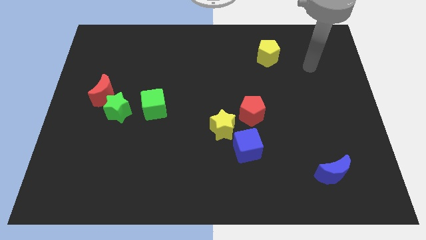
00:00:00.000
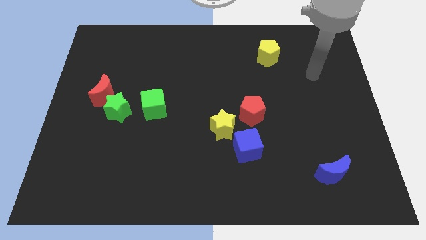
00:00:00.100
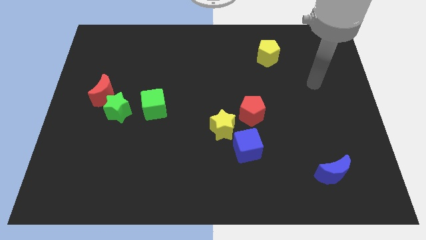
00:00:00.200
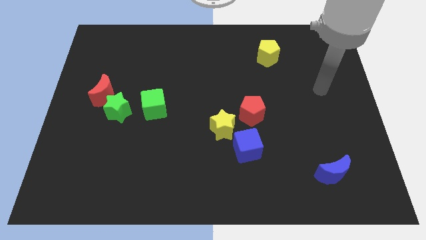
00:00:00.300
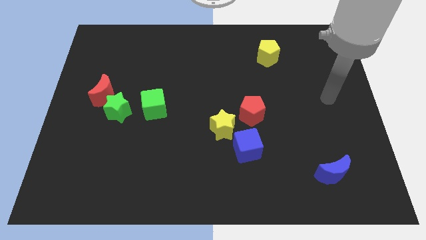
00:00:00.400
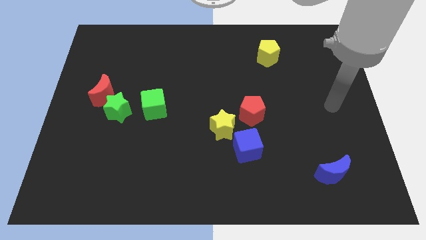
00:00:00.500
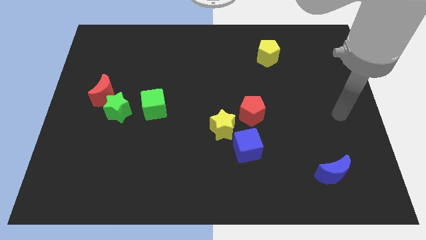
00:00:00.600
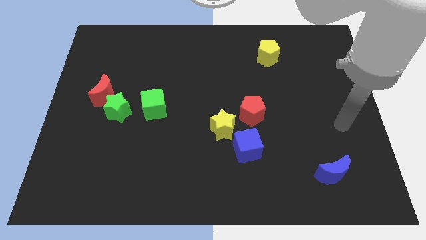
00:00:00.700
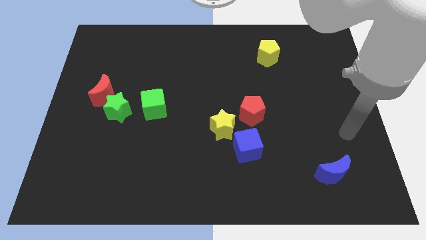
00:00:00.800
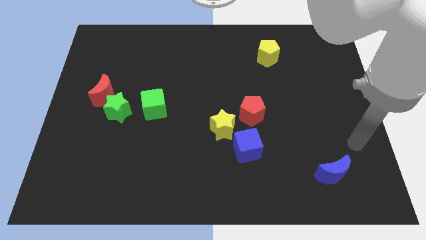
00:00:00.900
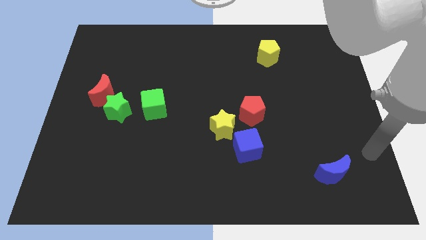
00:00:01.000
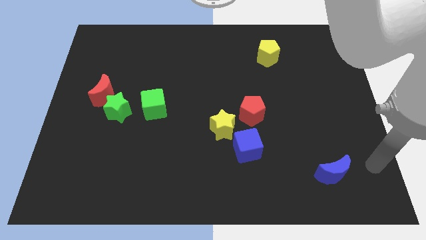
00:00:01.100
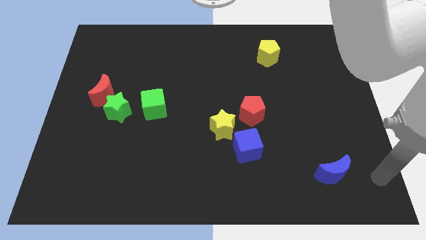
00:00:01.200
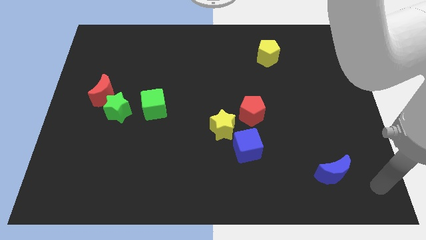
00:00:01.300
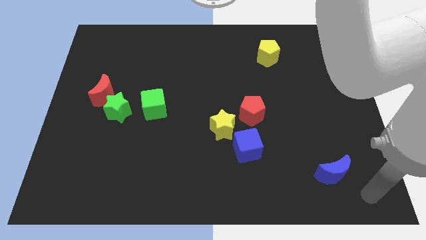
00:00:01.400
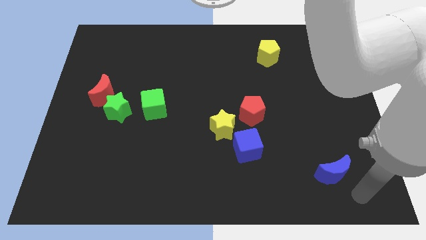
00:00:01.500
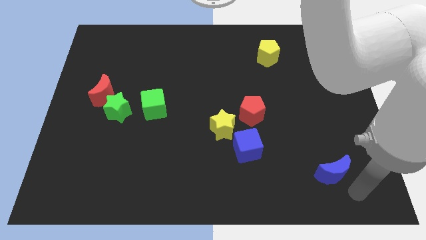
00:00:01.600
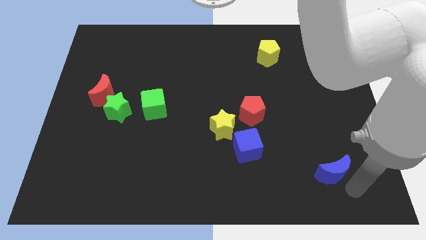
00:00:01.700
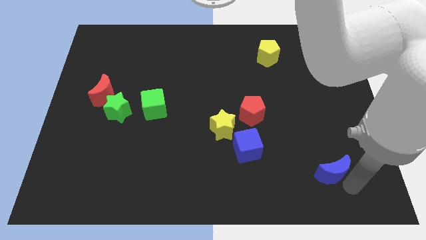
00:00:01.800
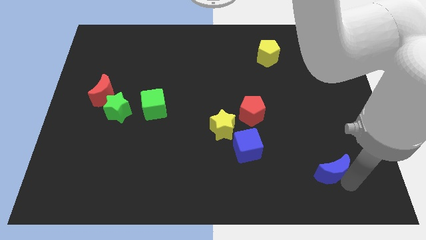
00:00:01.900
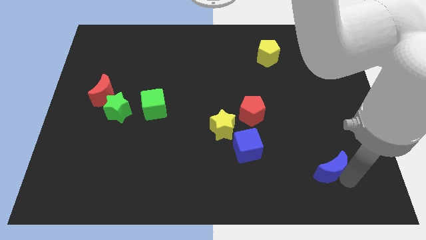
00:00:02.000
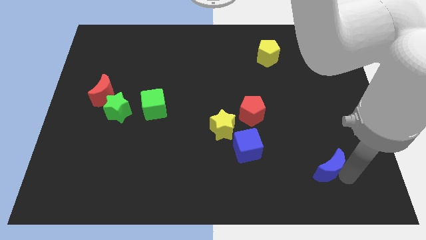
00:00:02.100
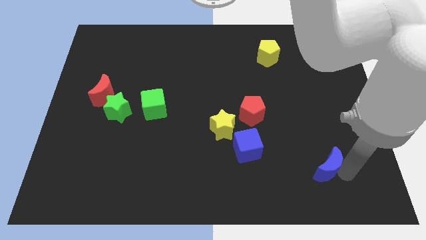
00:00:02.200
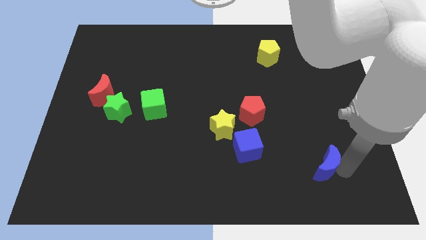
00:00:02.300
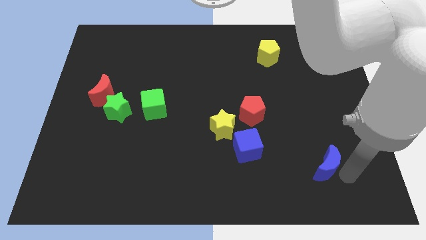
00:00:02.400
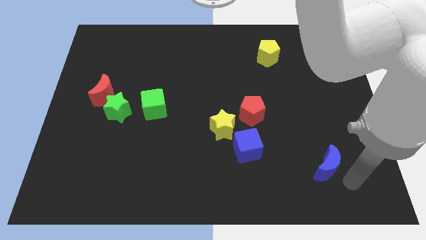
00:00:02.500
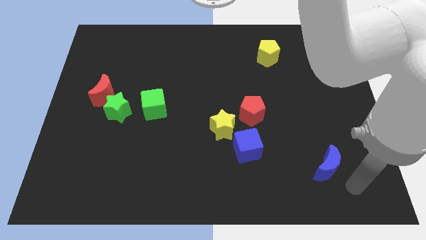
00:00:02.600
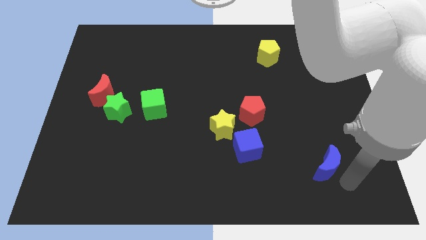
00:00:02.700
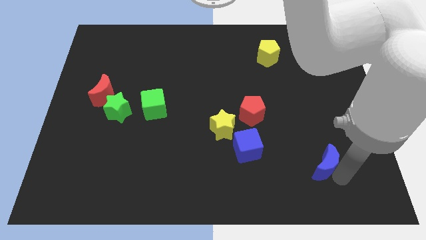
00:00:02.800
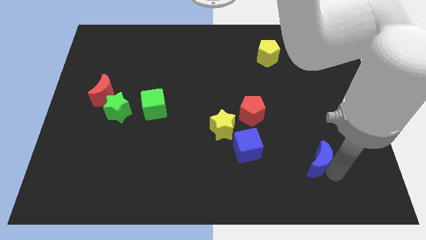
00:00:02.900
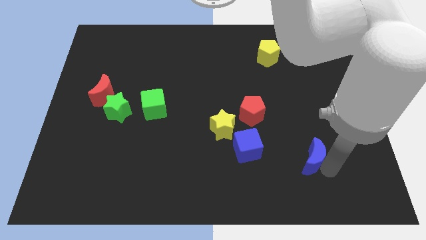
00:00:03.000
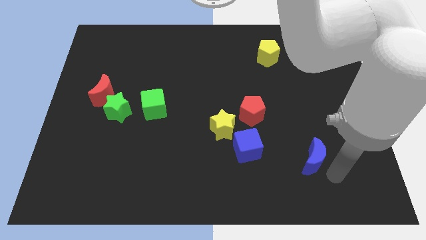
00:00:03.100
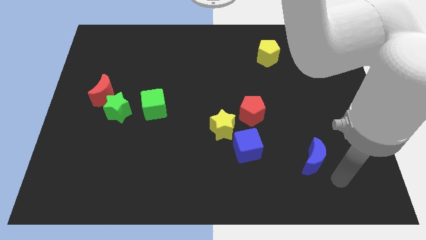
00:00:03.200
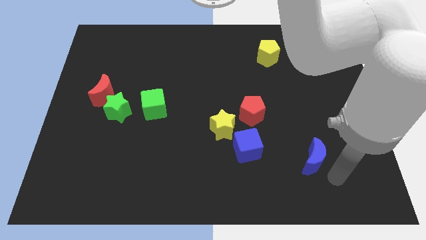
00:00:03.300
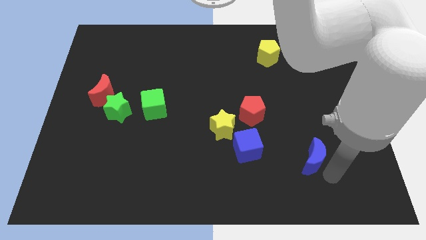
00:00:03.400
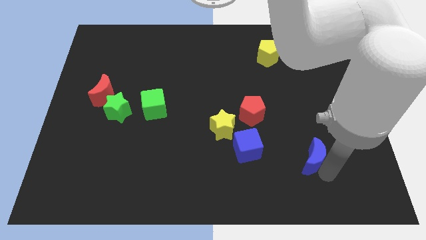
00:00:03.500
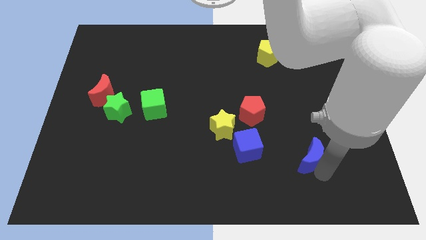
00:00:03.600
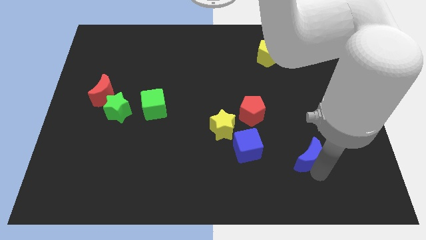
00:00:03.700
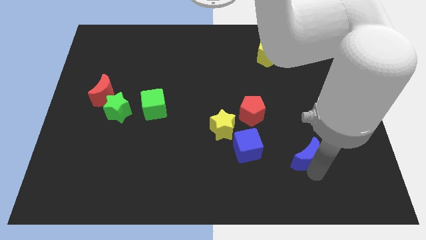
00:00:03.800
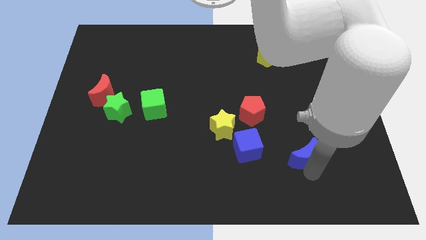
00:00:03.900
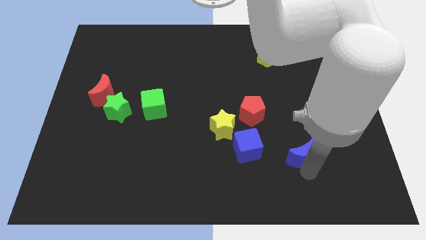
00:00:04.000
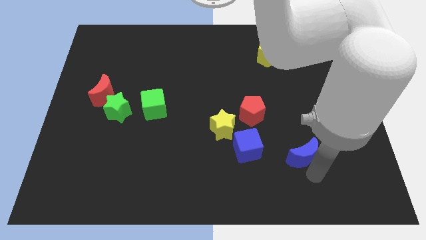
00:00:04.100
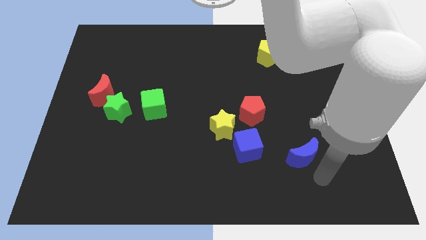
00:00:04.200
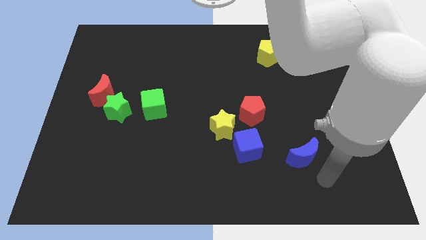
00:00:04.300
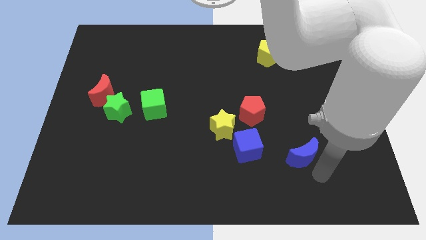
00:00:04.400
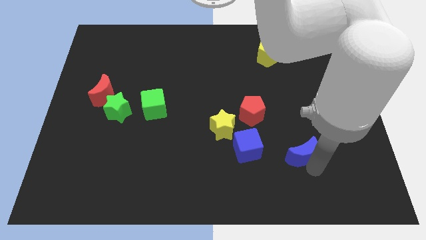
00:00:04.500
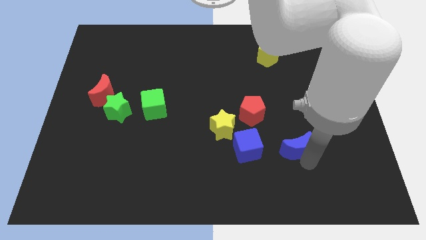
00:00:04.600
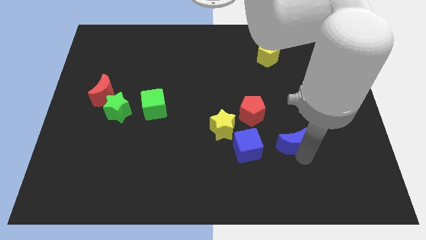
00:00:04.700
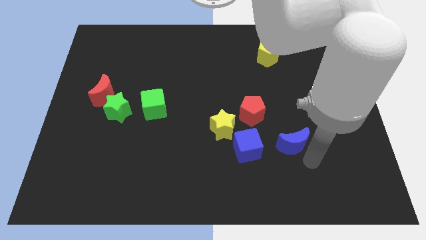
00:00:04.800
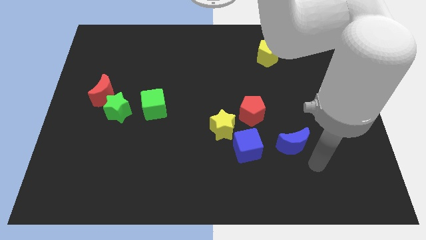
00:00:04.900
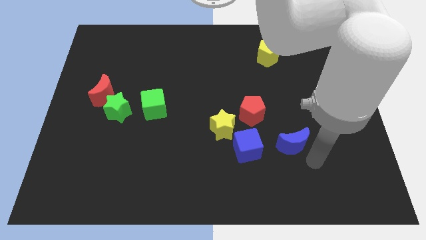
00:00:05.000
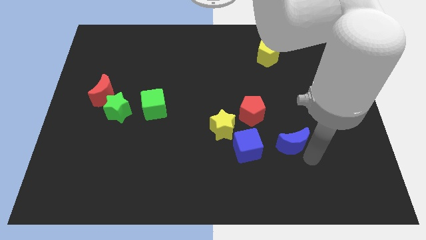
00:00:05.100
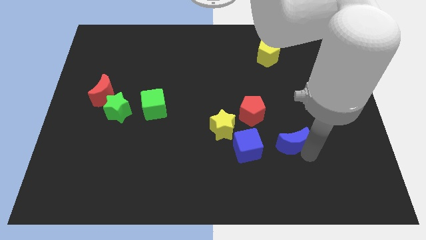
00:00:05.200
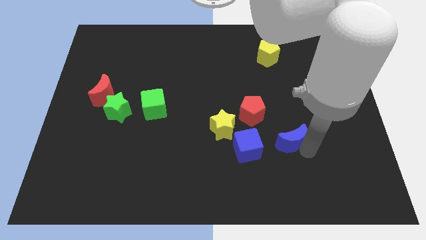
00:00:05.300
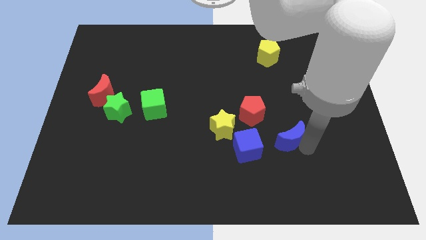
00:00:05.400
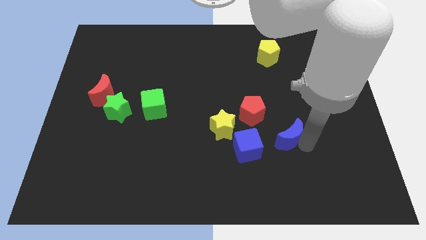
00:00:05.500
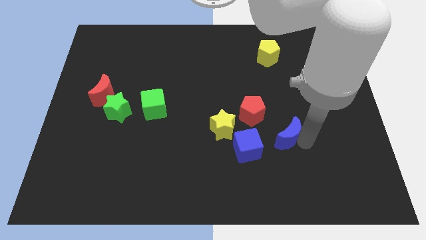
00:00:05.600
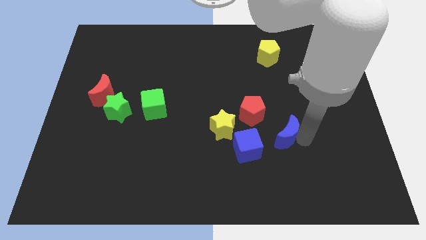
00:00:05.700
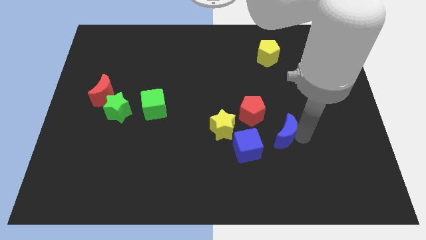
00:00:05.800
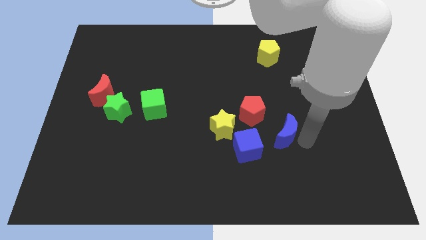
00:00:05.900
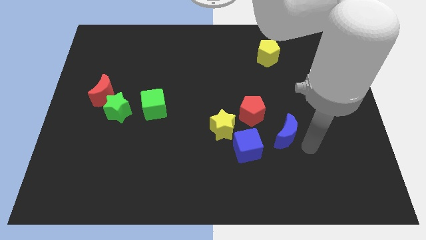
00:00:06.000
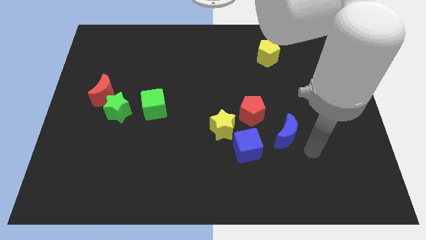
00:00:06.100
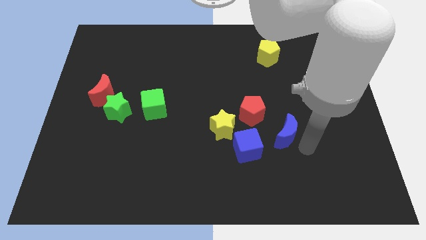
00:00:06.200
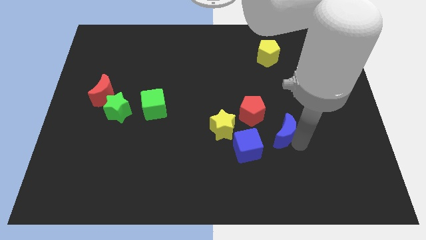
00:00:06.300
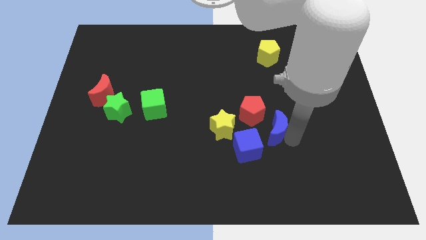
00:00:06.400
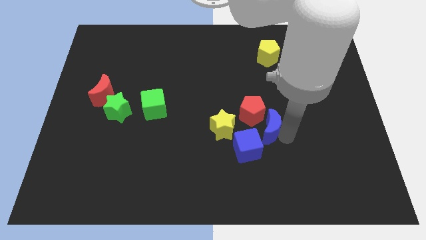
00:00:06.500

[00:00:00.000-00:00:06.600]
put the blue moon next to the red pentagon
